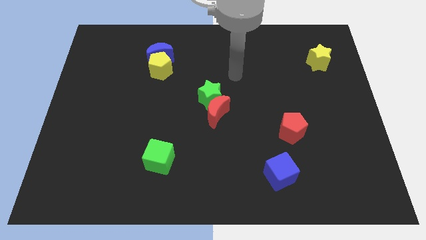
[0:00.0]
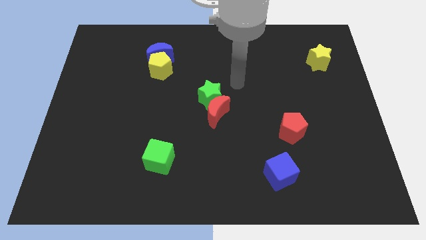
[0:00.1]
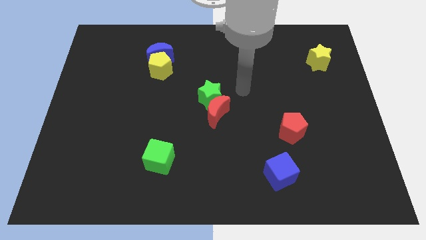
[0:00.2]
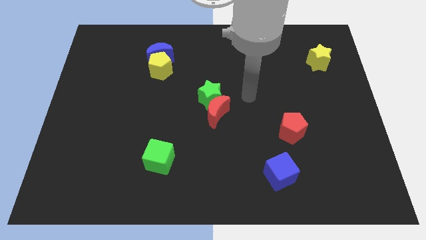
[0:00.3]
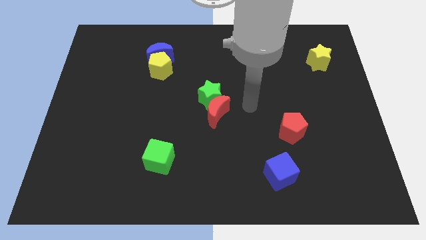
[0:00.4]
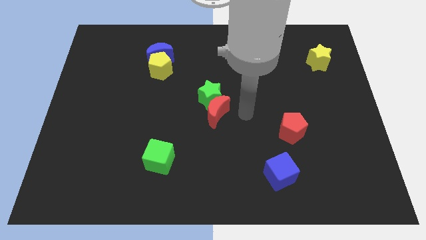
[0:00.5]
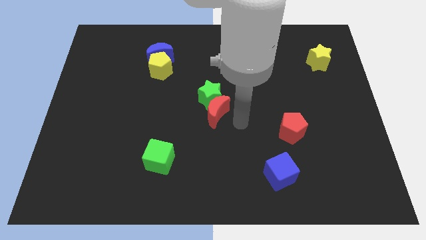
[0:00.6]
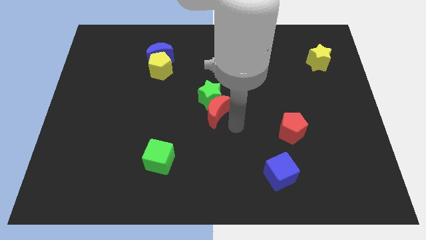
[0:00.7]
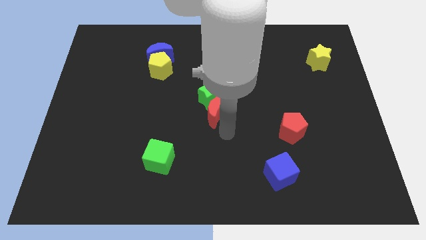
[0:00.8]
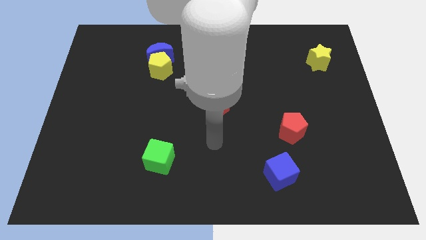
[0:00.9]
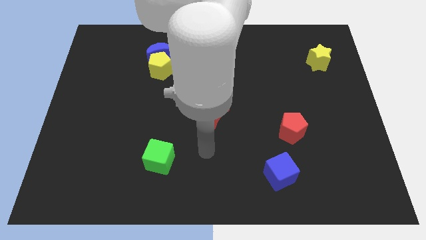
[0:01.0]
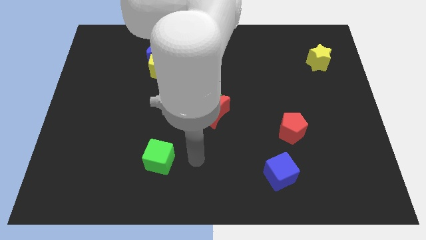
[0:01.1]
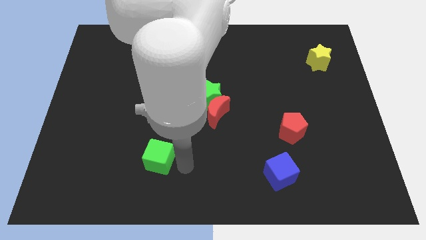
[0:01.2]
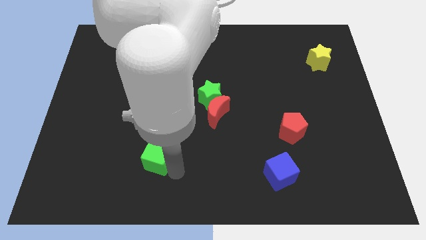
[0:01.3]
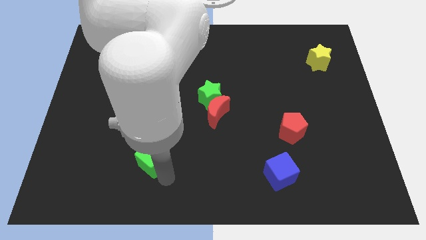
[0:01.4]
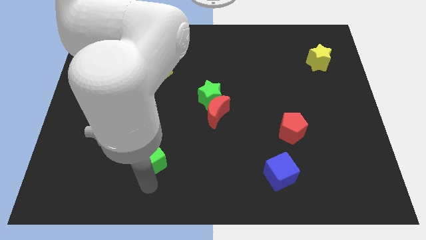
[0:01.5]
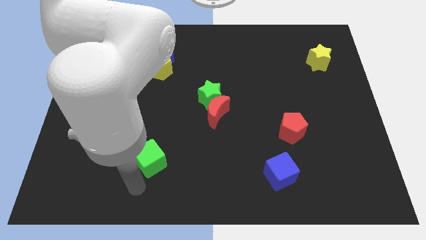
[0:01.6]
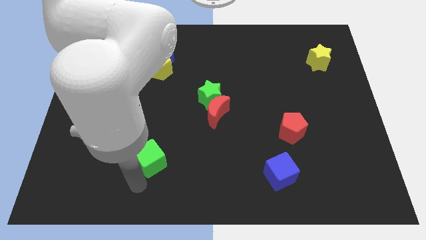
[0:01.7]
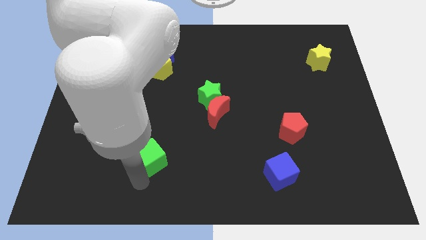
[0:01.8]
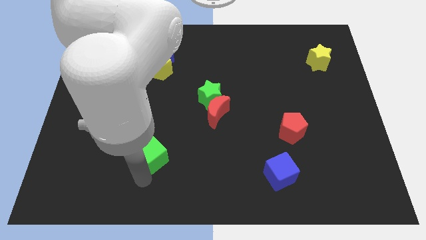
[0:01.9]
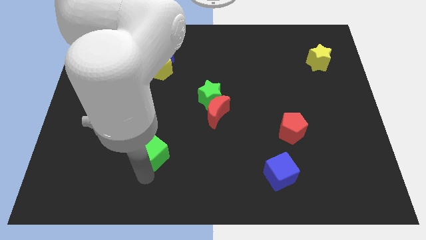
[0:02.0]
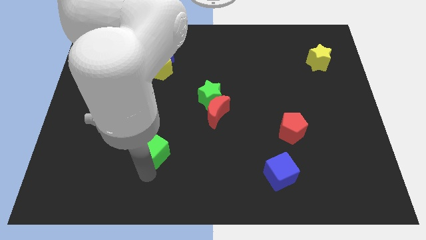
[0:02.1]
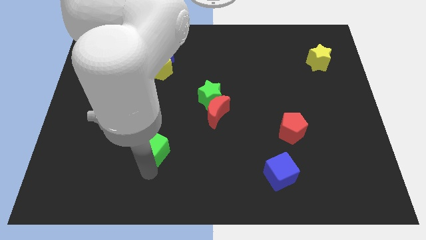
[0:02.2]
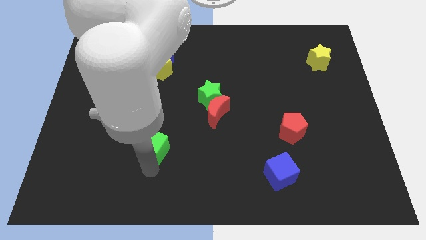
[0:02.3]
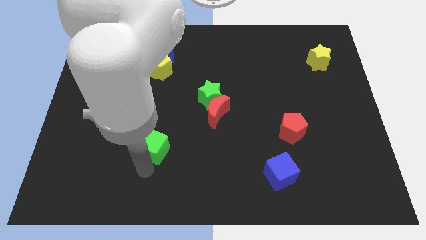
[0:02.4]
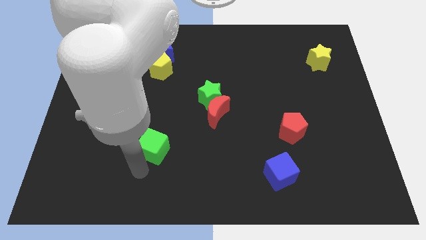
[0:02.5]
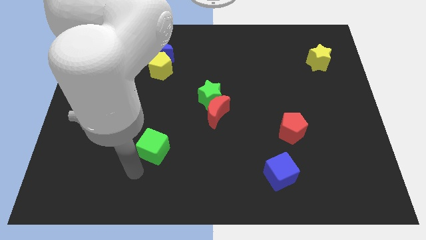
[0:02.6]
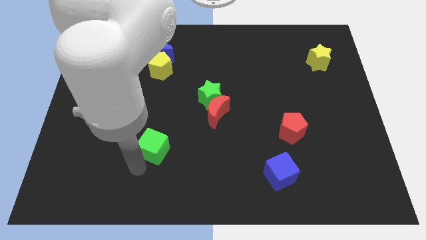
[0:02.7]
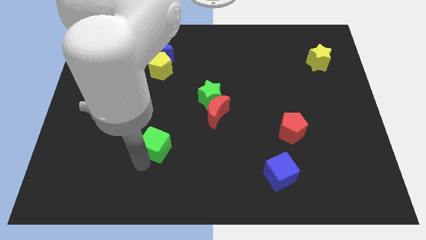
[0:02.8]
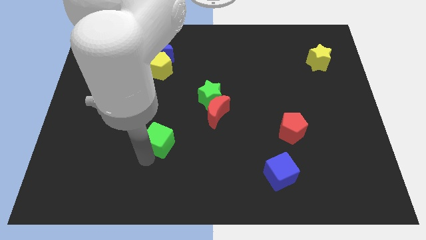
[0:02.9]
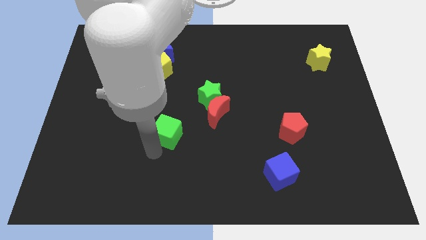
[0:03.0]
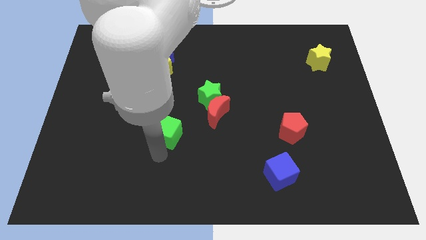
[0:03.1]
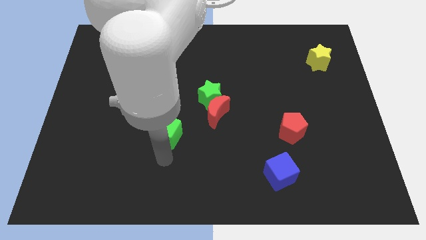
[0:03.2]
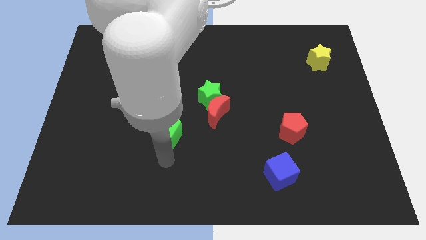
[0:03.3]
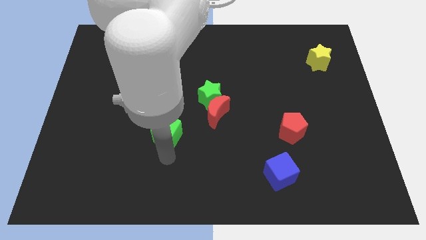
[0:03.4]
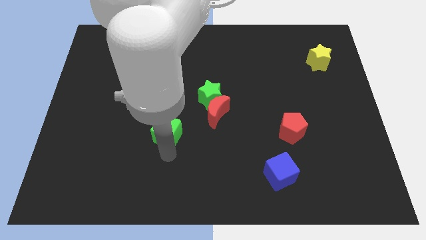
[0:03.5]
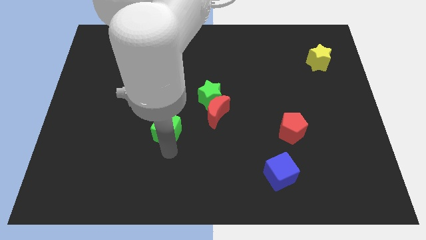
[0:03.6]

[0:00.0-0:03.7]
slightly push the green cube up

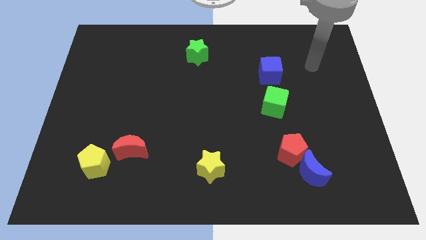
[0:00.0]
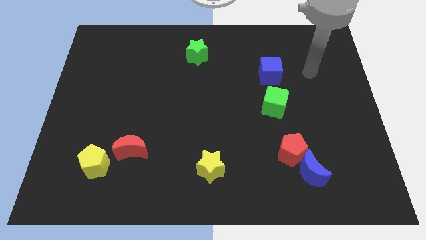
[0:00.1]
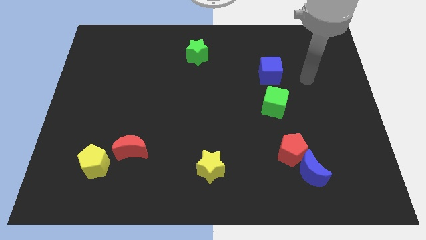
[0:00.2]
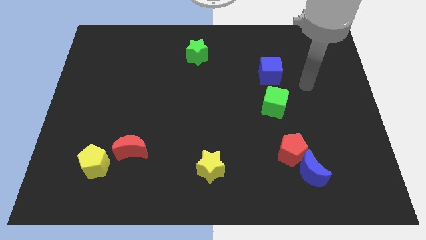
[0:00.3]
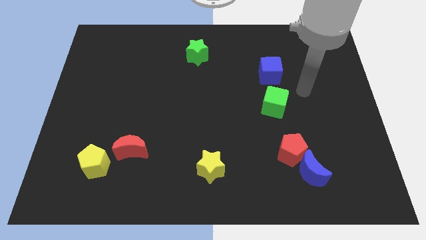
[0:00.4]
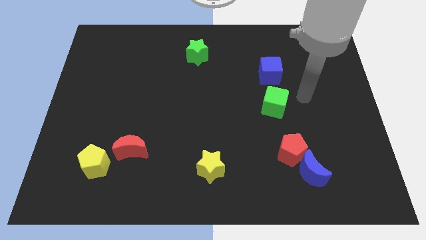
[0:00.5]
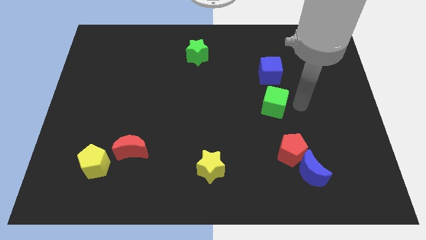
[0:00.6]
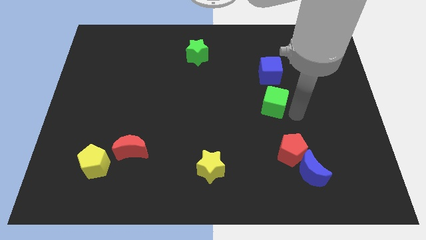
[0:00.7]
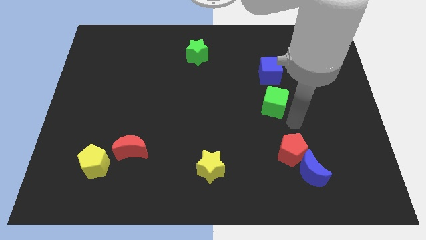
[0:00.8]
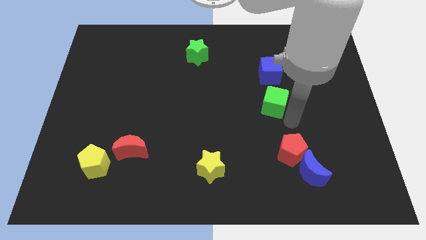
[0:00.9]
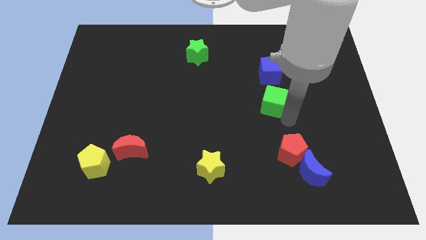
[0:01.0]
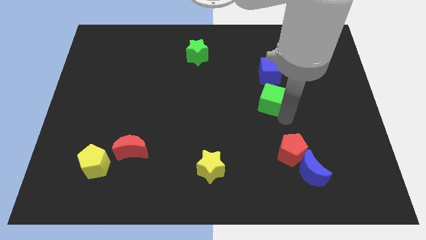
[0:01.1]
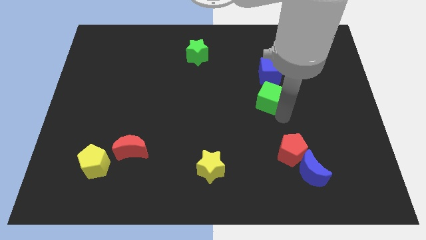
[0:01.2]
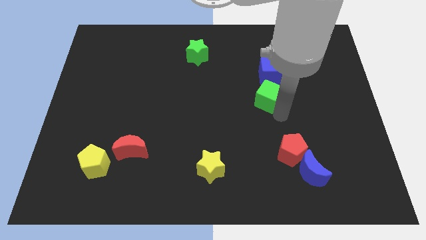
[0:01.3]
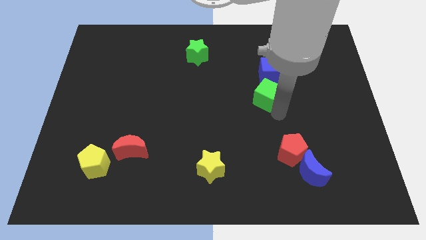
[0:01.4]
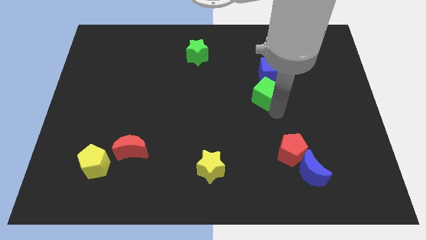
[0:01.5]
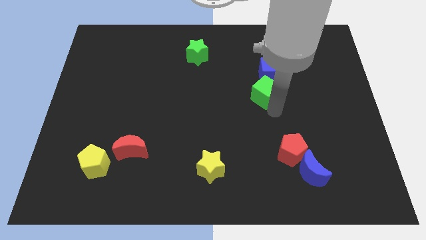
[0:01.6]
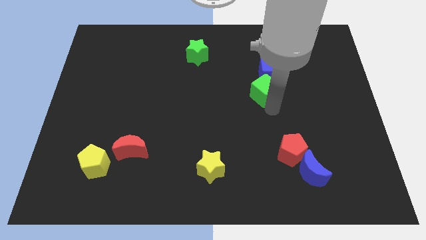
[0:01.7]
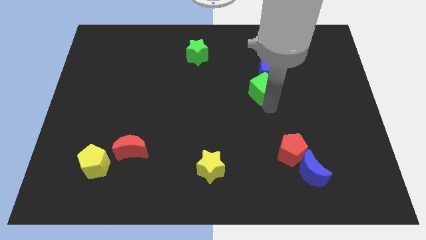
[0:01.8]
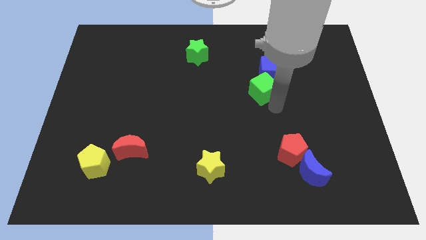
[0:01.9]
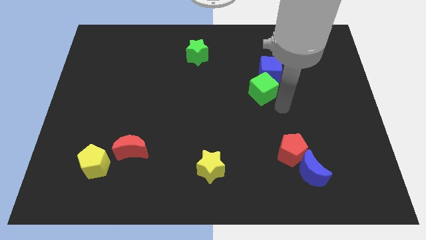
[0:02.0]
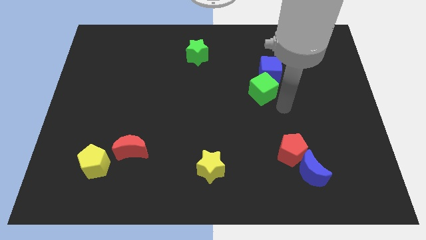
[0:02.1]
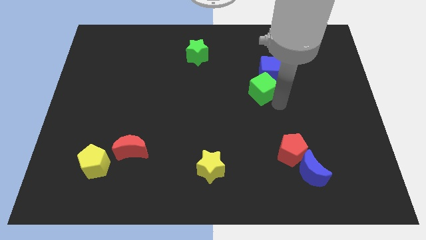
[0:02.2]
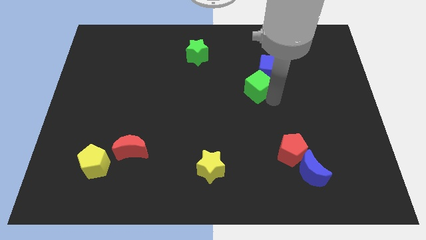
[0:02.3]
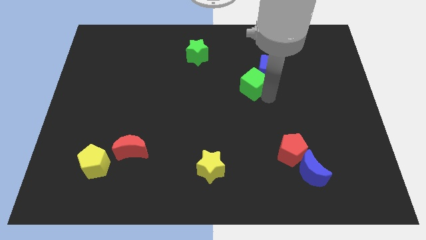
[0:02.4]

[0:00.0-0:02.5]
move the green cube slightly upwards and then to the left

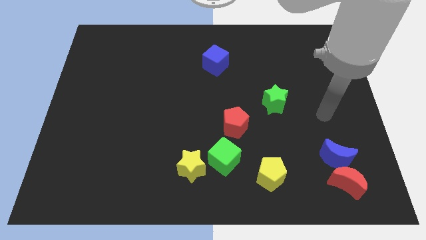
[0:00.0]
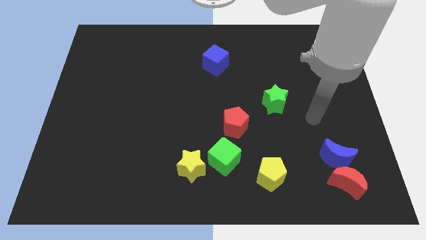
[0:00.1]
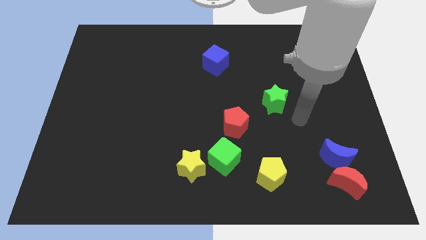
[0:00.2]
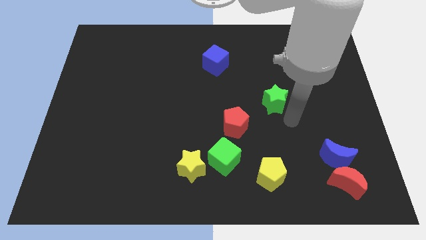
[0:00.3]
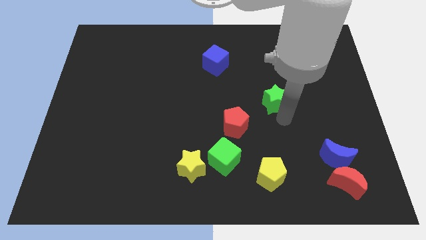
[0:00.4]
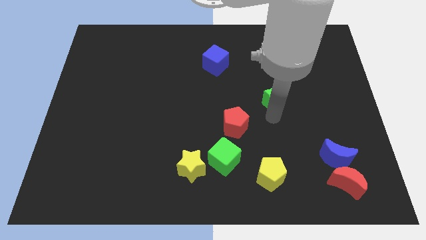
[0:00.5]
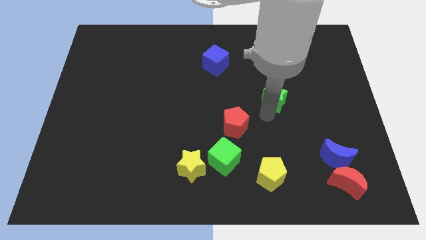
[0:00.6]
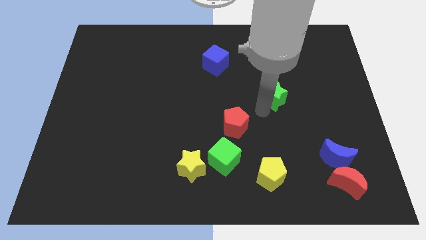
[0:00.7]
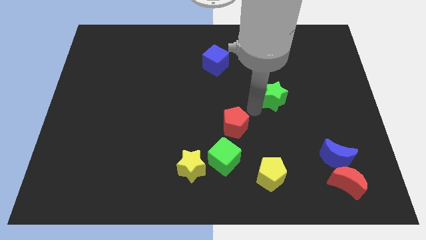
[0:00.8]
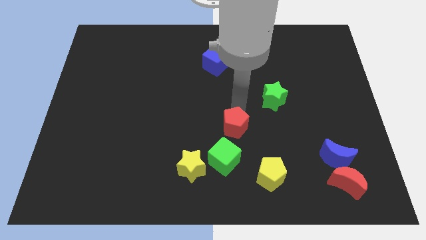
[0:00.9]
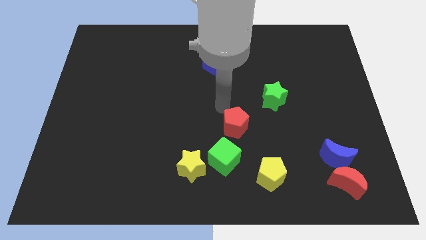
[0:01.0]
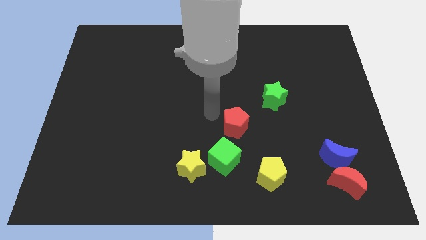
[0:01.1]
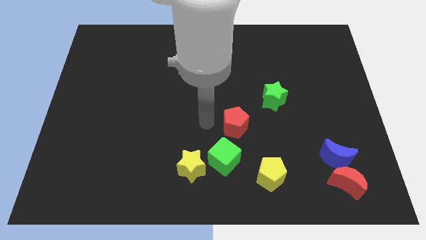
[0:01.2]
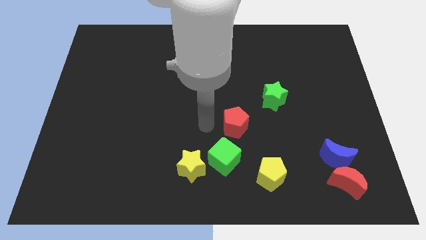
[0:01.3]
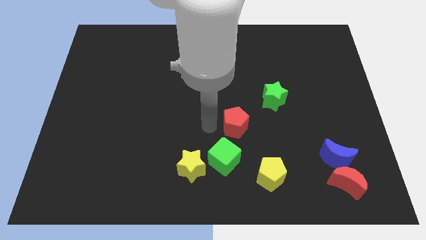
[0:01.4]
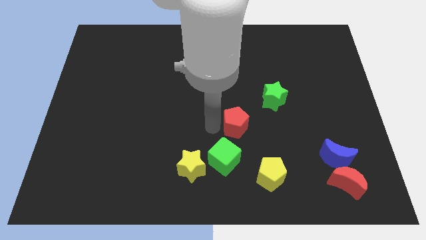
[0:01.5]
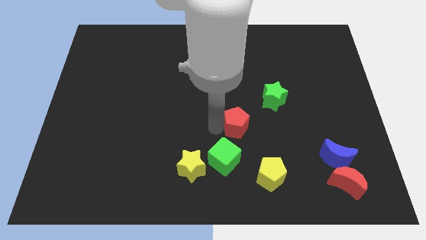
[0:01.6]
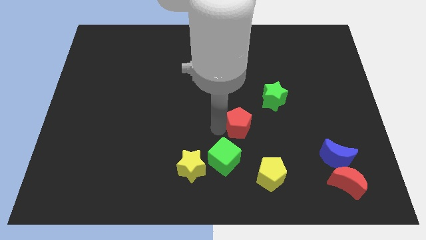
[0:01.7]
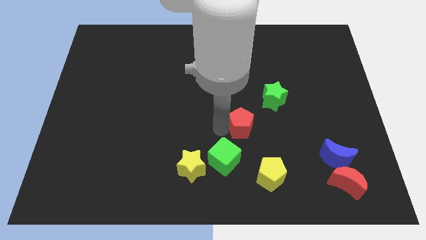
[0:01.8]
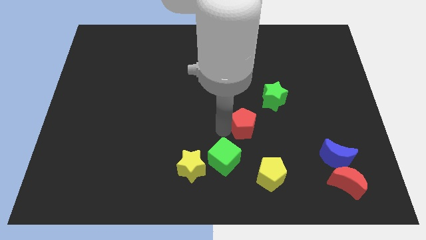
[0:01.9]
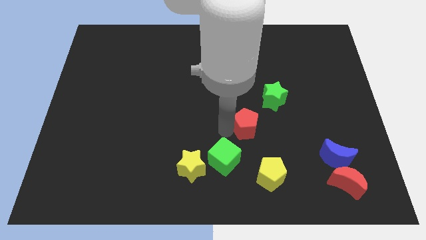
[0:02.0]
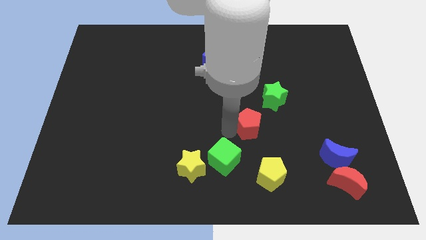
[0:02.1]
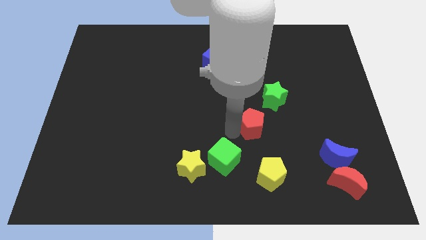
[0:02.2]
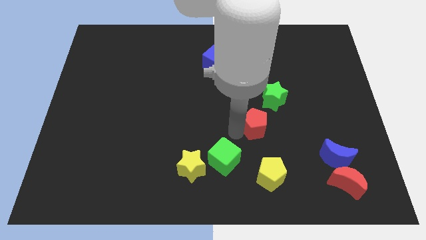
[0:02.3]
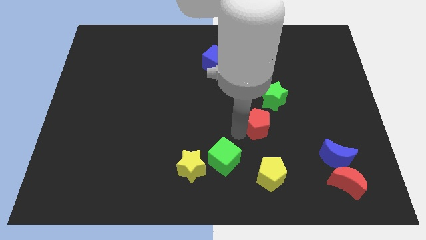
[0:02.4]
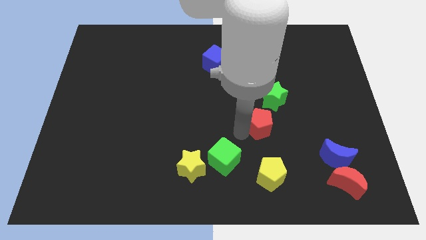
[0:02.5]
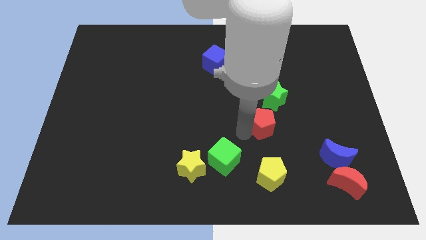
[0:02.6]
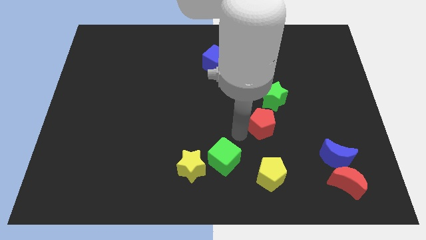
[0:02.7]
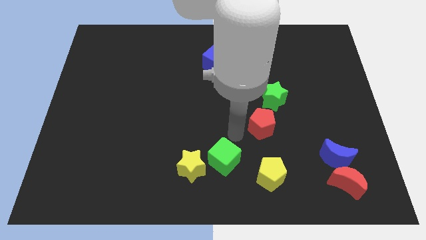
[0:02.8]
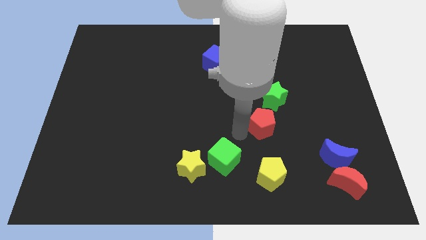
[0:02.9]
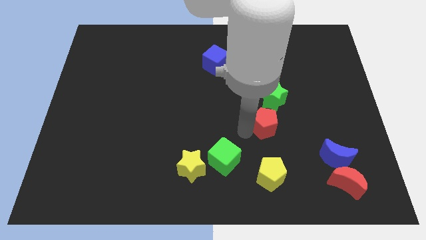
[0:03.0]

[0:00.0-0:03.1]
push the red pentagon to the right slightly
